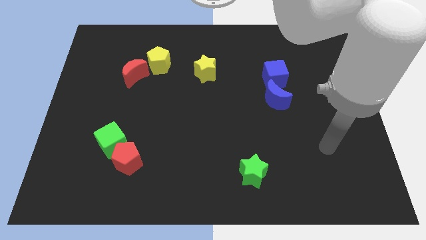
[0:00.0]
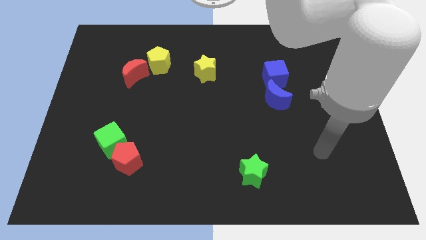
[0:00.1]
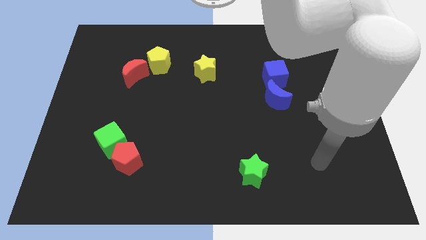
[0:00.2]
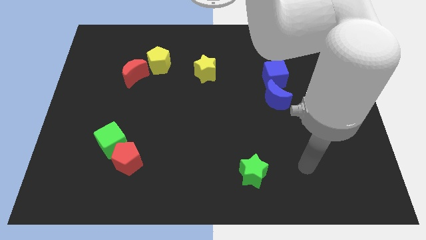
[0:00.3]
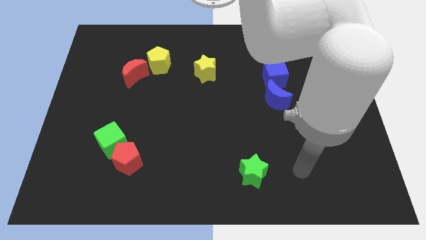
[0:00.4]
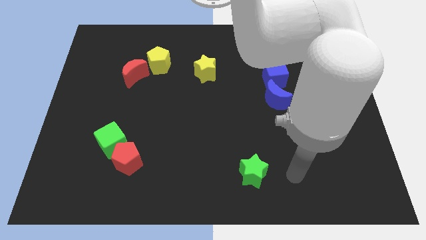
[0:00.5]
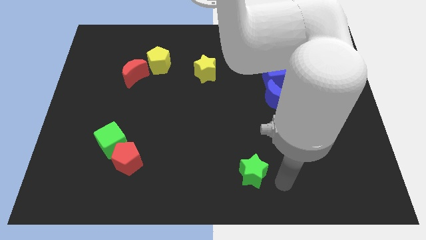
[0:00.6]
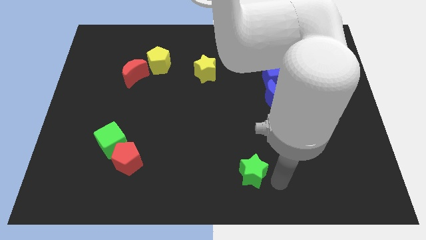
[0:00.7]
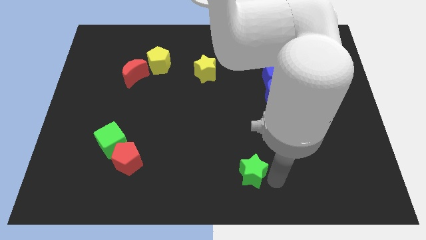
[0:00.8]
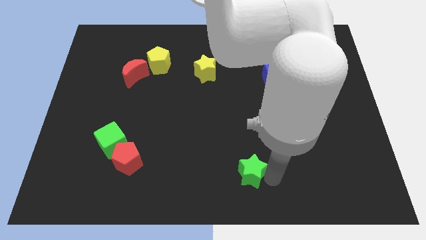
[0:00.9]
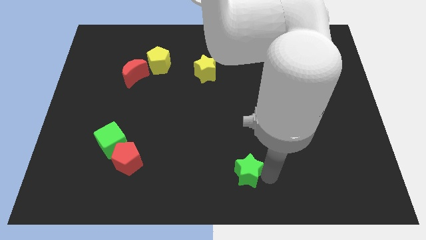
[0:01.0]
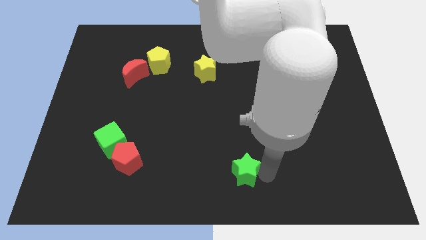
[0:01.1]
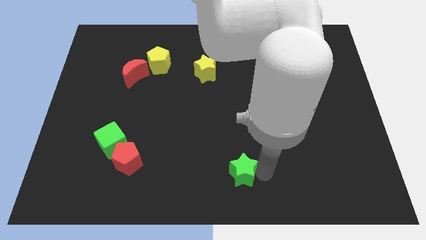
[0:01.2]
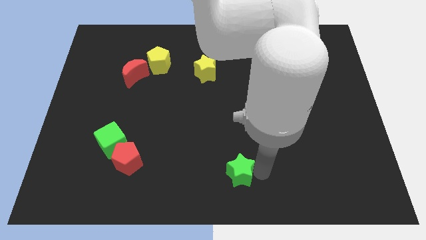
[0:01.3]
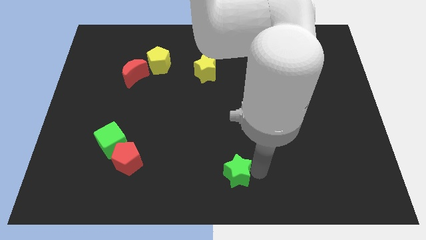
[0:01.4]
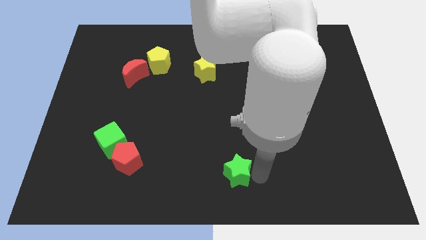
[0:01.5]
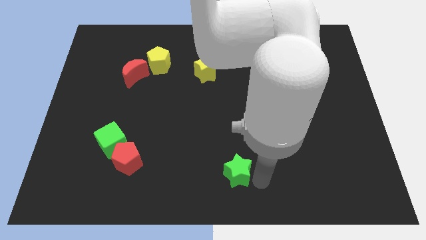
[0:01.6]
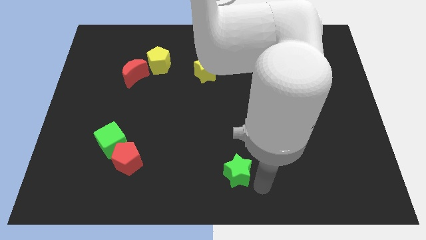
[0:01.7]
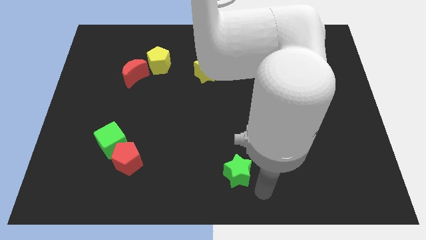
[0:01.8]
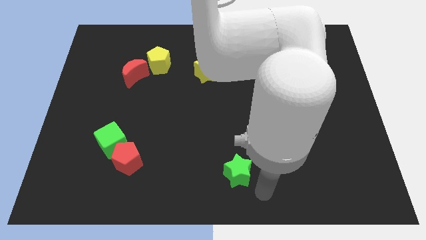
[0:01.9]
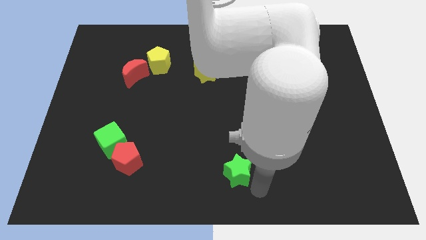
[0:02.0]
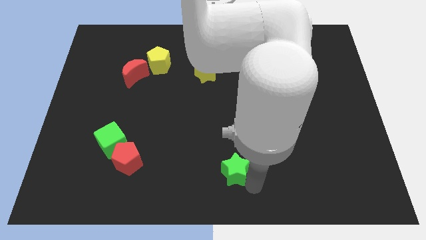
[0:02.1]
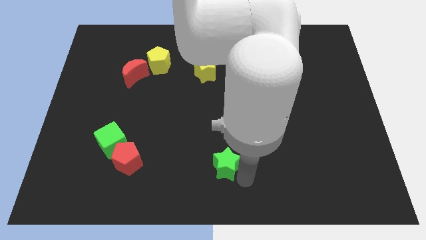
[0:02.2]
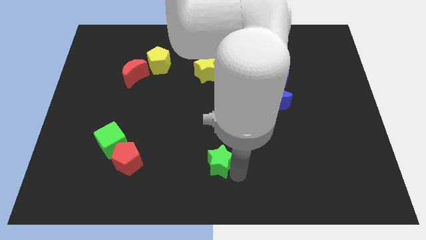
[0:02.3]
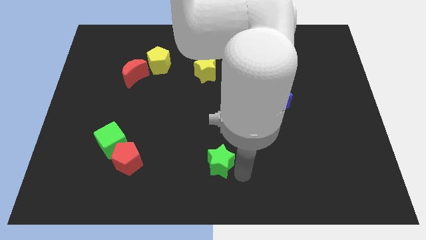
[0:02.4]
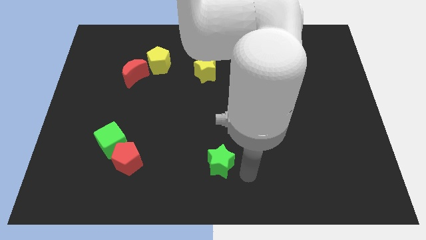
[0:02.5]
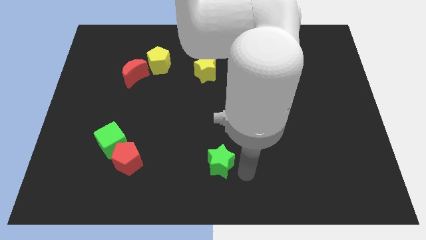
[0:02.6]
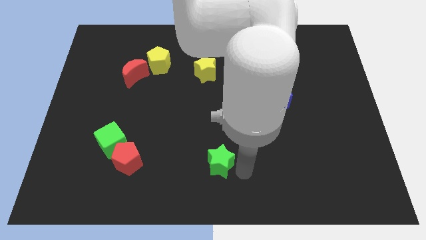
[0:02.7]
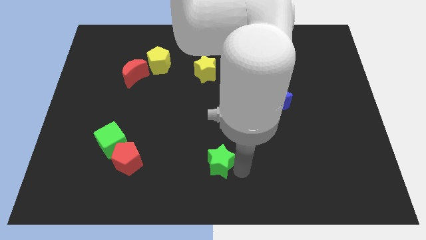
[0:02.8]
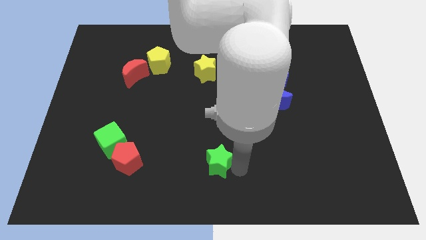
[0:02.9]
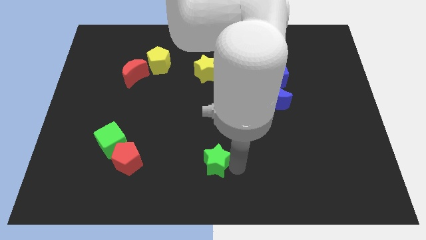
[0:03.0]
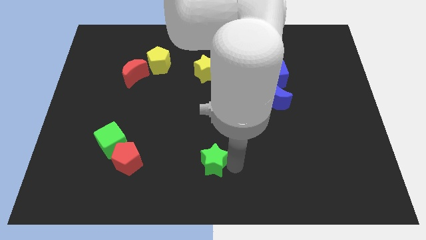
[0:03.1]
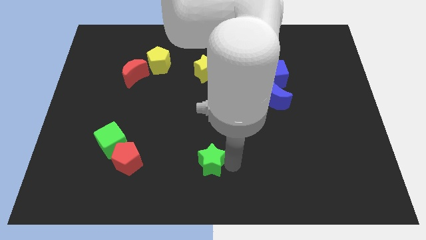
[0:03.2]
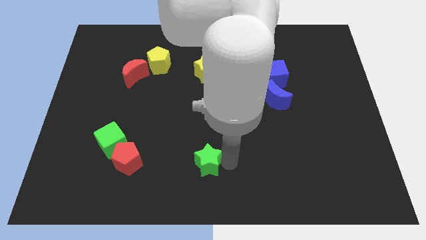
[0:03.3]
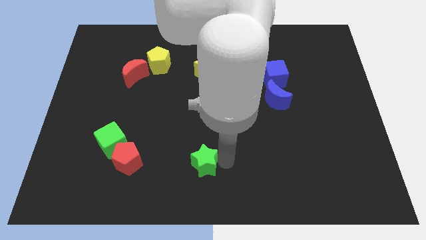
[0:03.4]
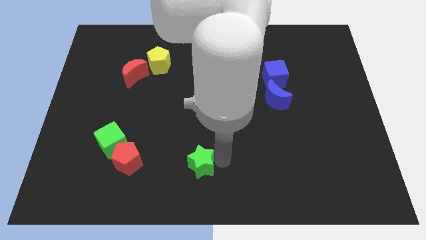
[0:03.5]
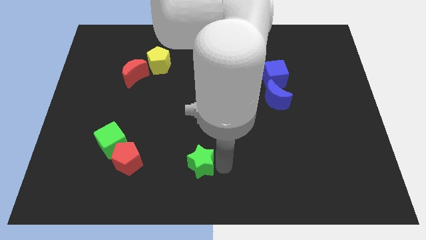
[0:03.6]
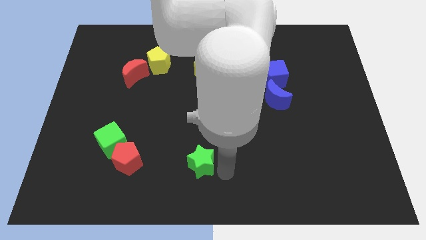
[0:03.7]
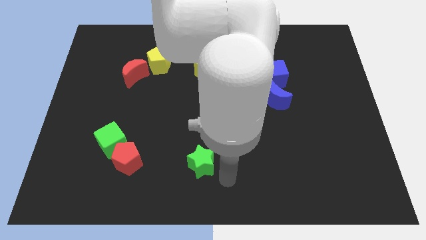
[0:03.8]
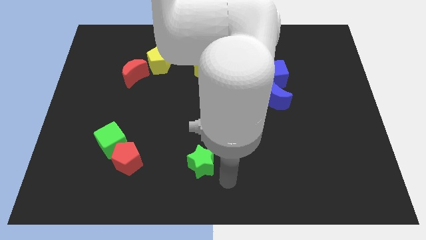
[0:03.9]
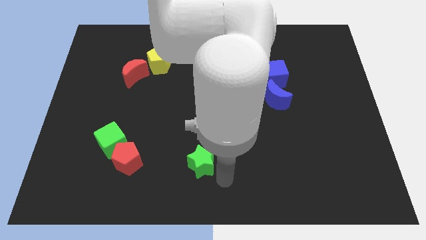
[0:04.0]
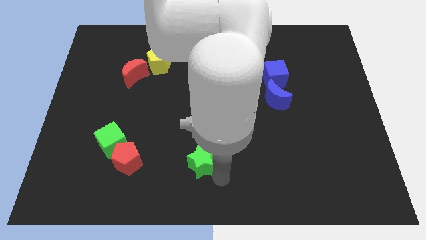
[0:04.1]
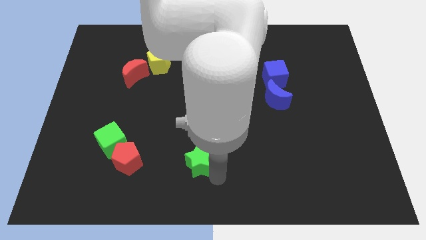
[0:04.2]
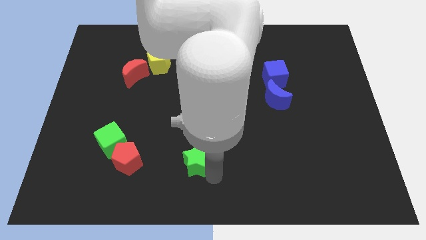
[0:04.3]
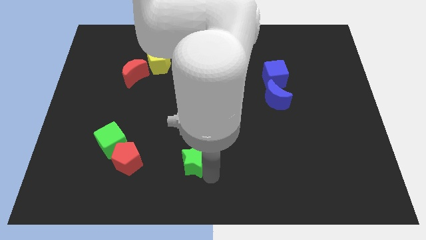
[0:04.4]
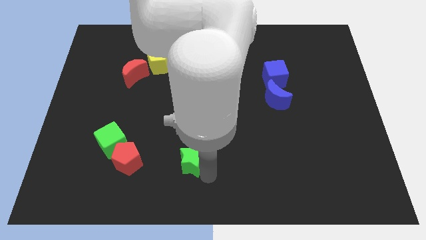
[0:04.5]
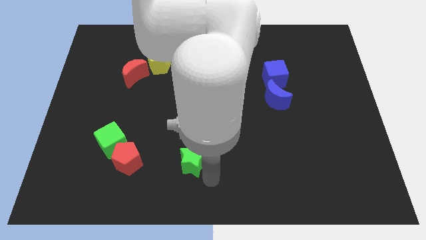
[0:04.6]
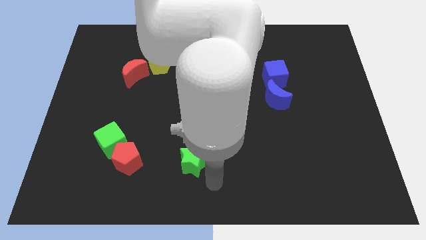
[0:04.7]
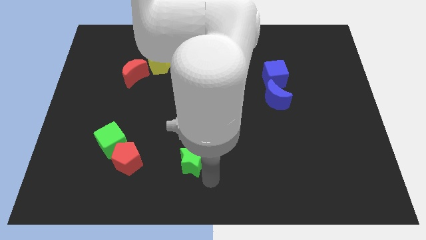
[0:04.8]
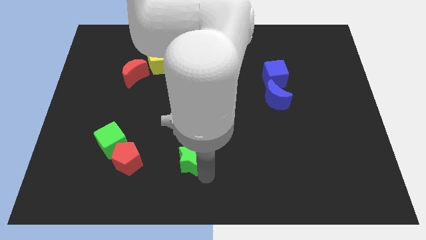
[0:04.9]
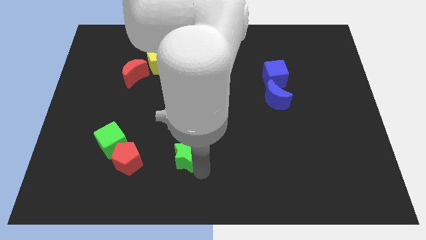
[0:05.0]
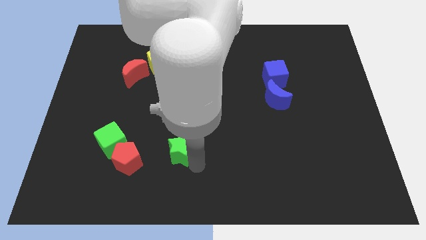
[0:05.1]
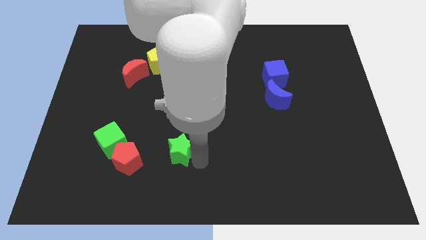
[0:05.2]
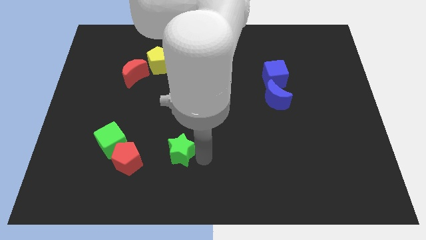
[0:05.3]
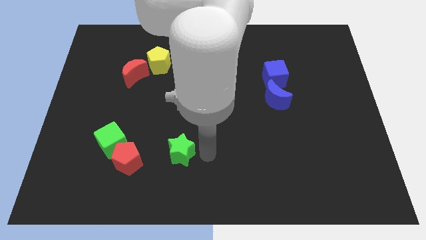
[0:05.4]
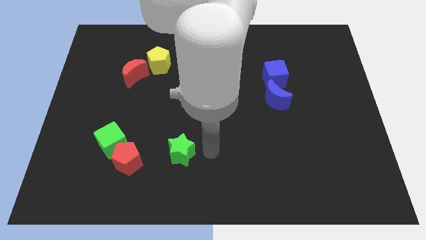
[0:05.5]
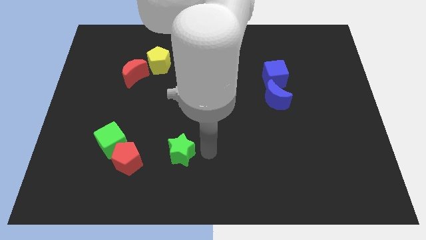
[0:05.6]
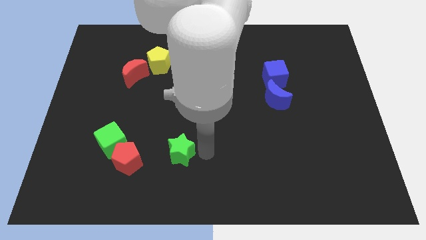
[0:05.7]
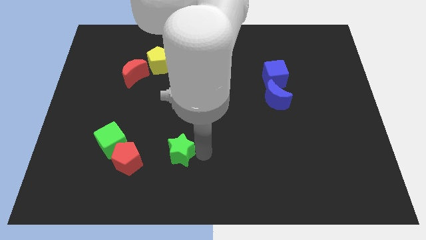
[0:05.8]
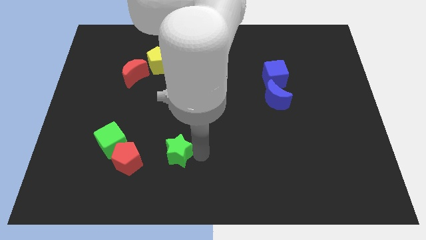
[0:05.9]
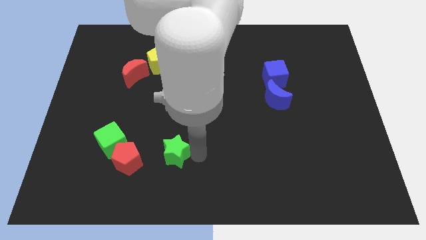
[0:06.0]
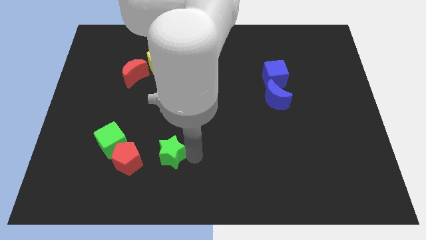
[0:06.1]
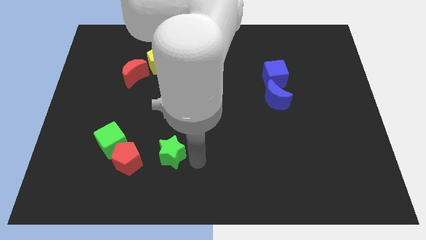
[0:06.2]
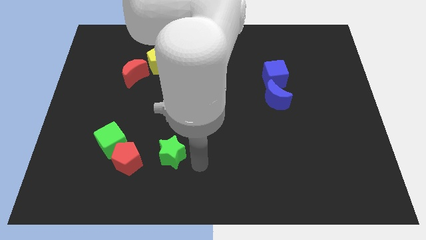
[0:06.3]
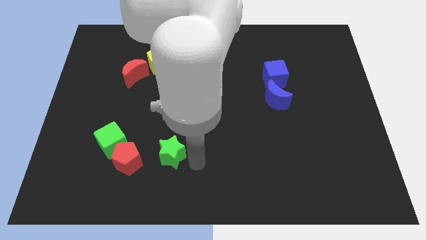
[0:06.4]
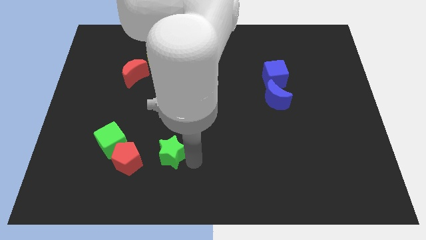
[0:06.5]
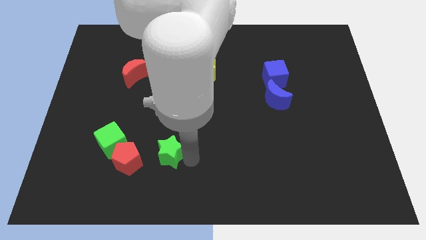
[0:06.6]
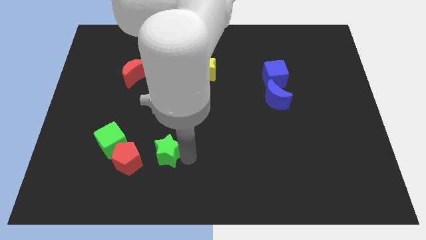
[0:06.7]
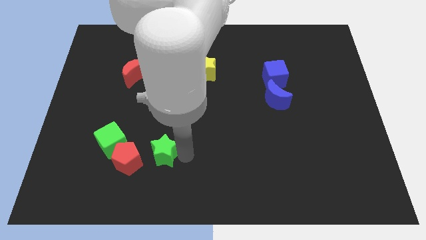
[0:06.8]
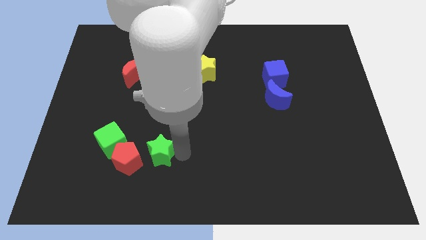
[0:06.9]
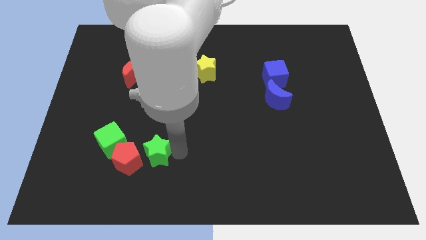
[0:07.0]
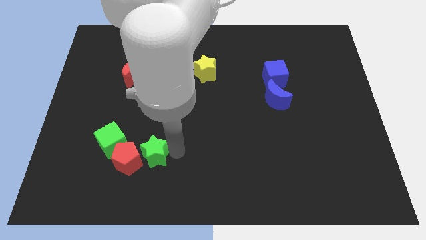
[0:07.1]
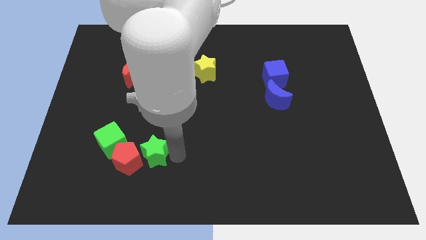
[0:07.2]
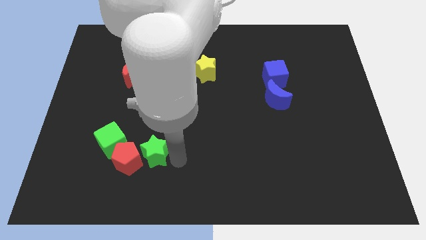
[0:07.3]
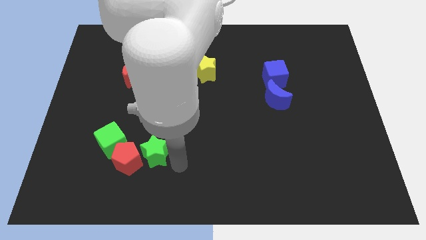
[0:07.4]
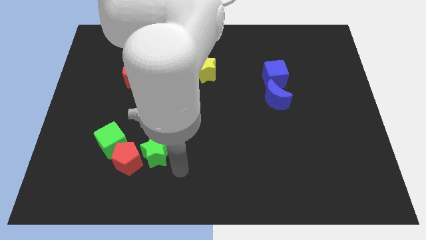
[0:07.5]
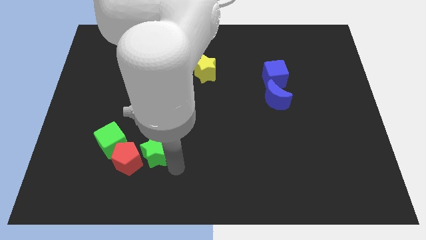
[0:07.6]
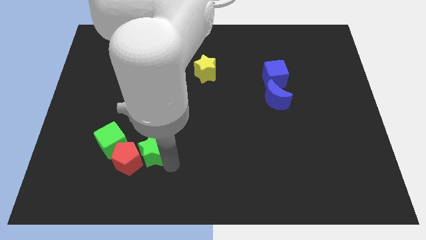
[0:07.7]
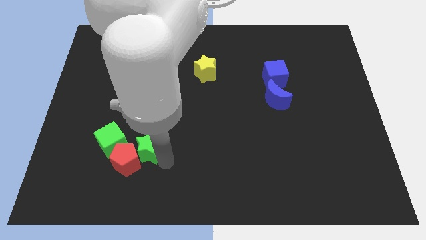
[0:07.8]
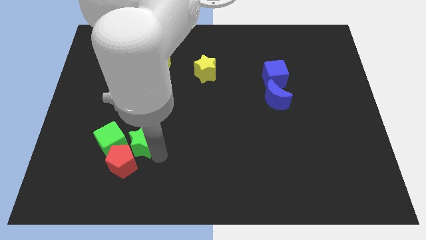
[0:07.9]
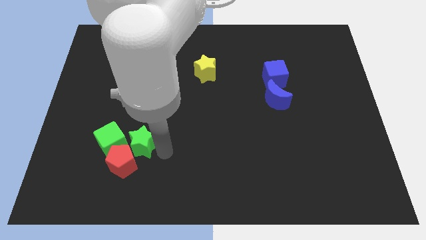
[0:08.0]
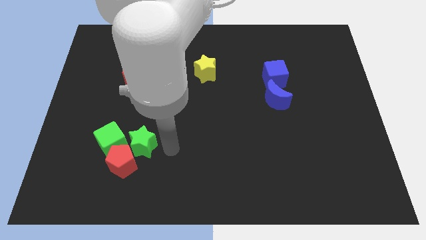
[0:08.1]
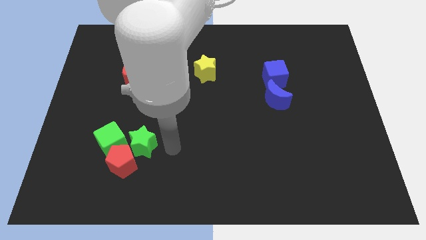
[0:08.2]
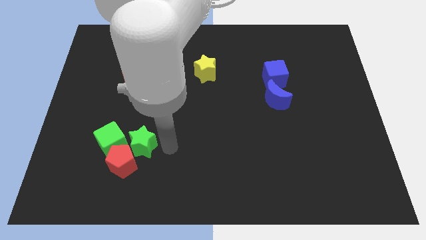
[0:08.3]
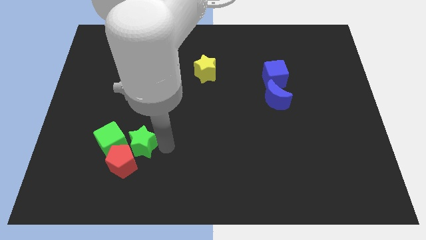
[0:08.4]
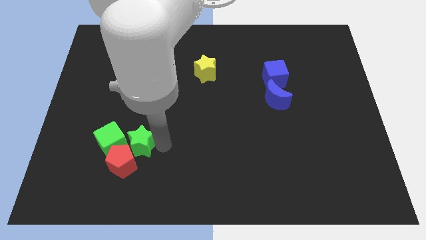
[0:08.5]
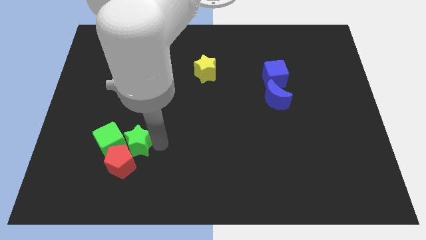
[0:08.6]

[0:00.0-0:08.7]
move the green star towards the green cube
